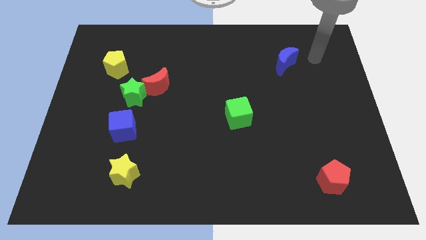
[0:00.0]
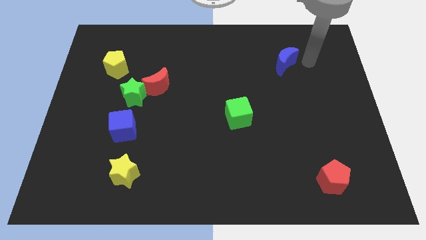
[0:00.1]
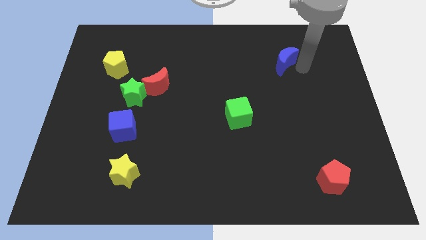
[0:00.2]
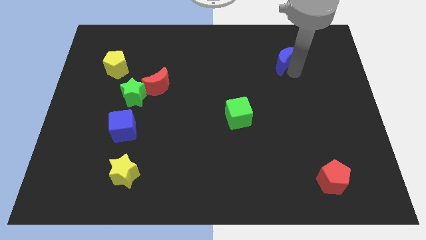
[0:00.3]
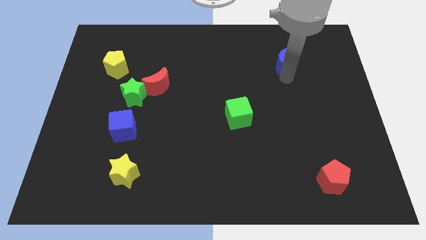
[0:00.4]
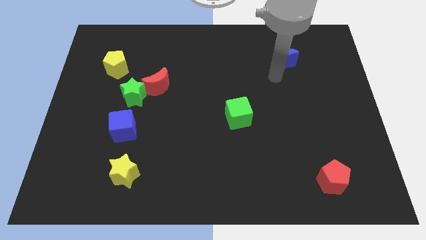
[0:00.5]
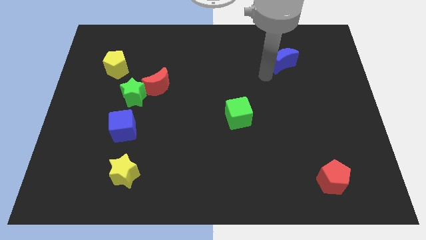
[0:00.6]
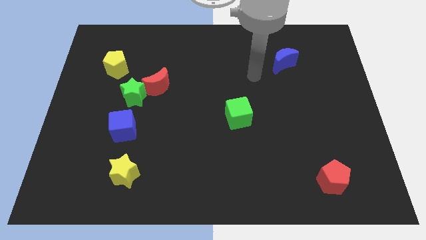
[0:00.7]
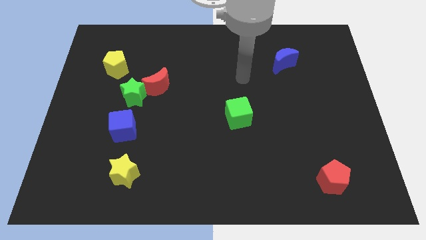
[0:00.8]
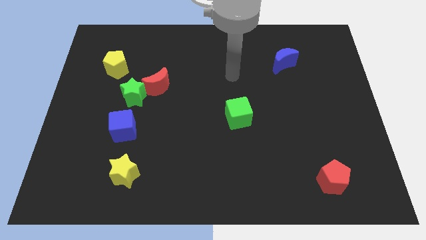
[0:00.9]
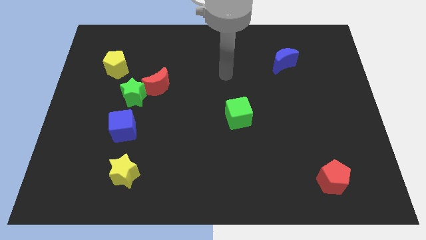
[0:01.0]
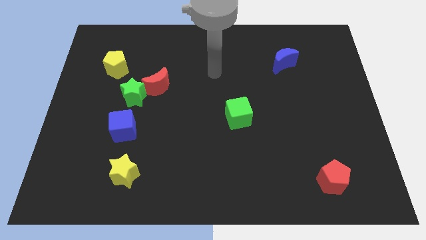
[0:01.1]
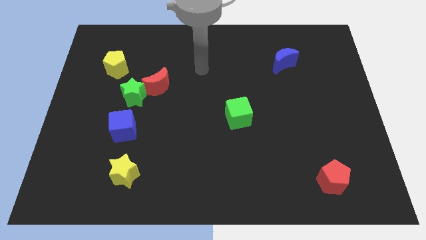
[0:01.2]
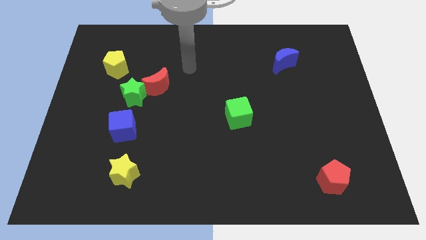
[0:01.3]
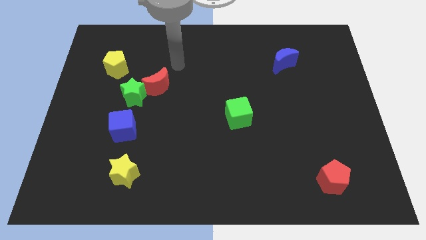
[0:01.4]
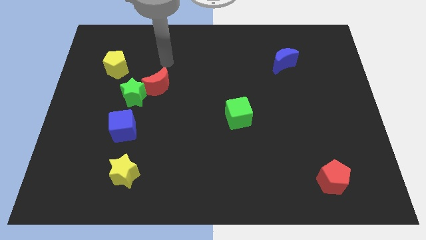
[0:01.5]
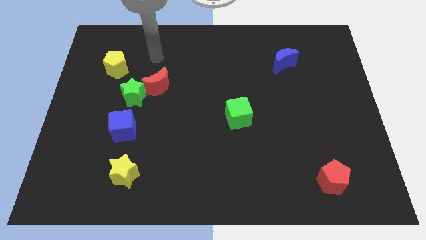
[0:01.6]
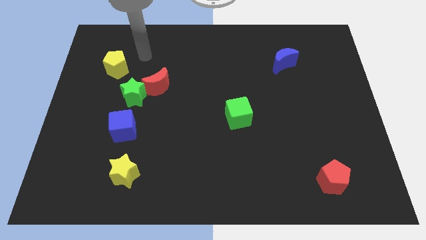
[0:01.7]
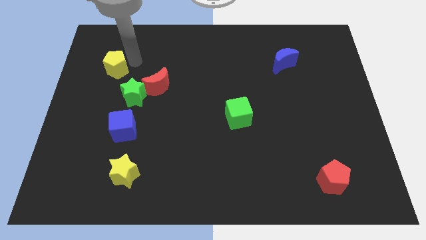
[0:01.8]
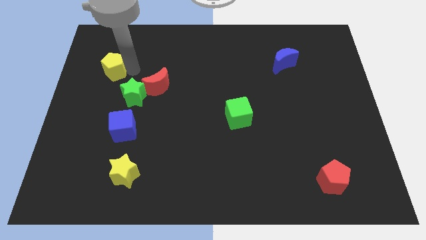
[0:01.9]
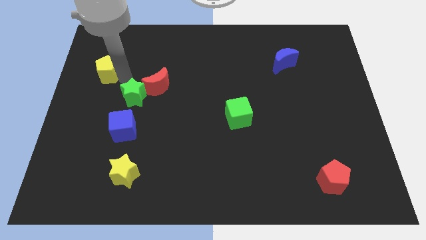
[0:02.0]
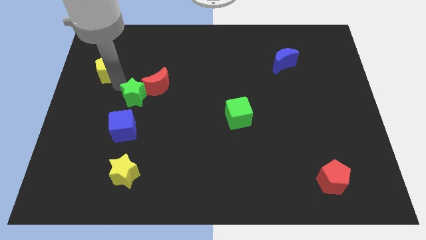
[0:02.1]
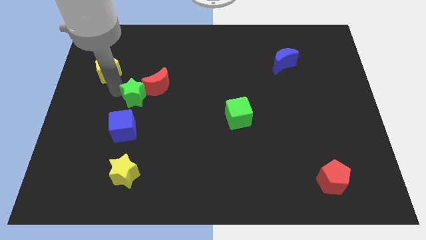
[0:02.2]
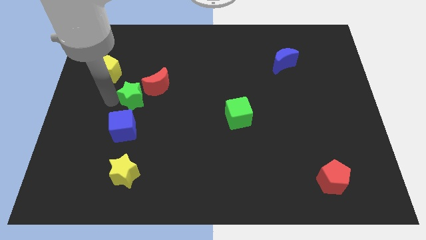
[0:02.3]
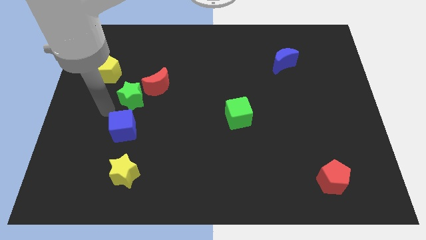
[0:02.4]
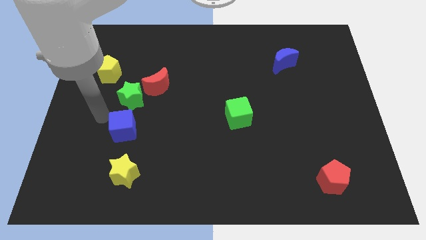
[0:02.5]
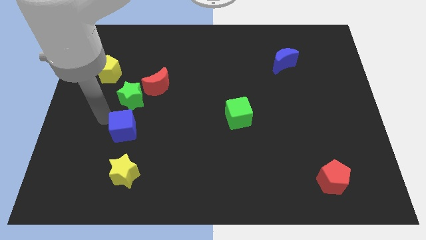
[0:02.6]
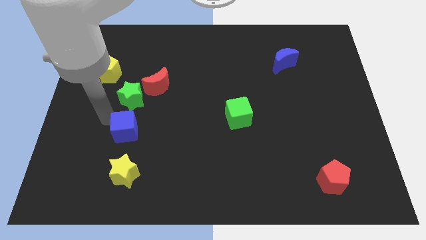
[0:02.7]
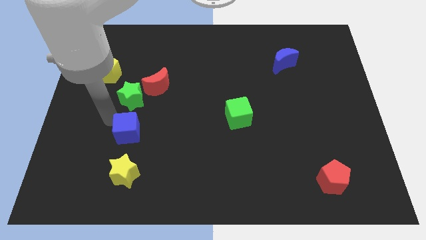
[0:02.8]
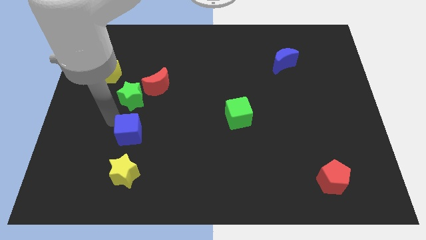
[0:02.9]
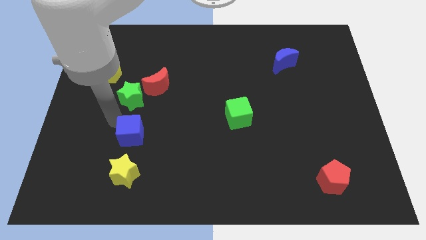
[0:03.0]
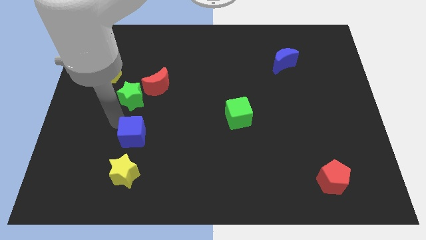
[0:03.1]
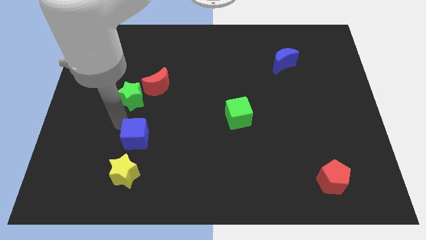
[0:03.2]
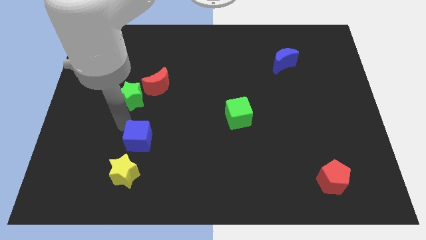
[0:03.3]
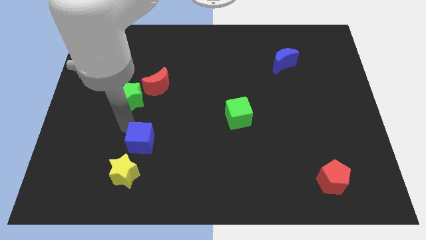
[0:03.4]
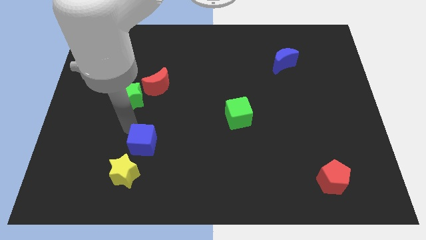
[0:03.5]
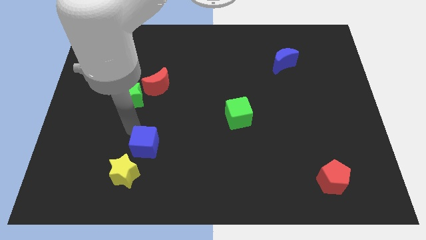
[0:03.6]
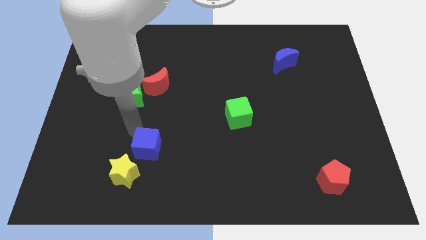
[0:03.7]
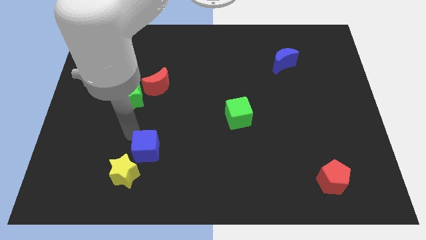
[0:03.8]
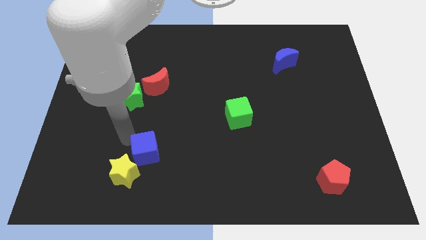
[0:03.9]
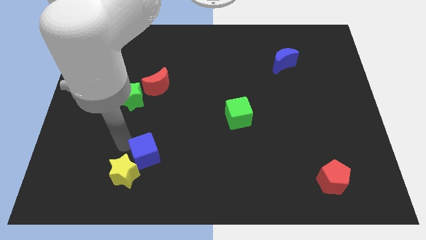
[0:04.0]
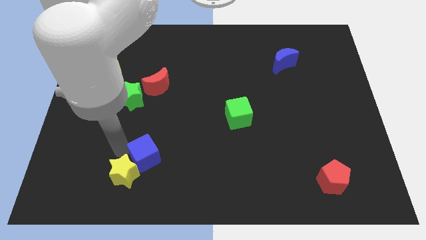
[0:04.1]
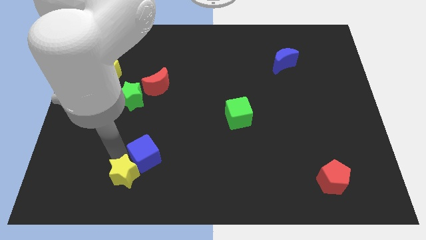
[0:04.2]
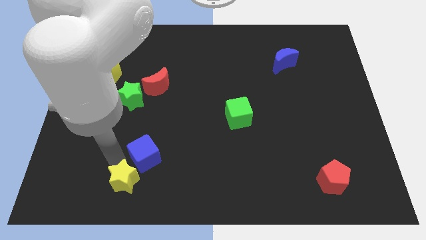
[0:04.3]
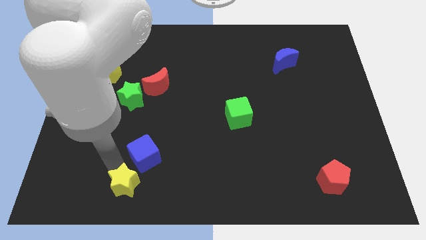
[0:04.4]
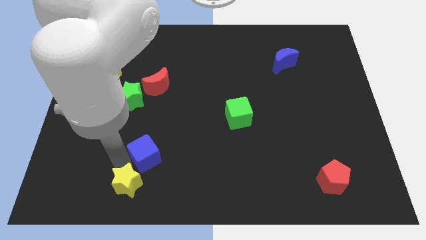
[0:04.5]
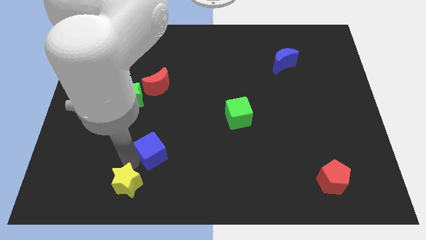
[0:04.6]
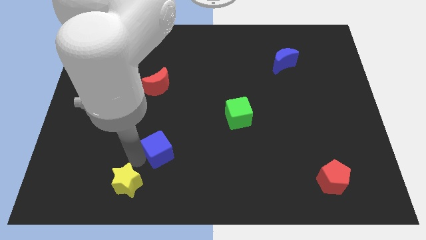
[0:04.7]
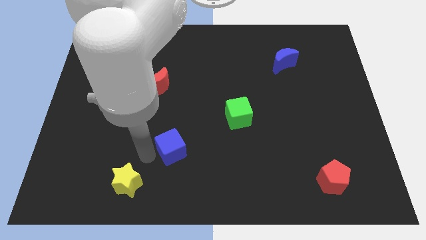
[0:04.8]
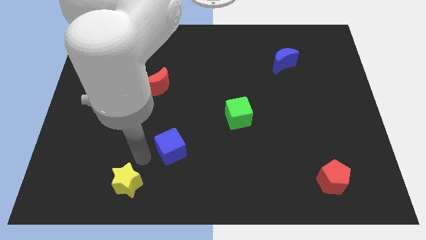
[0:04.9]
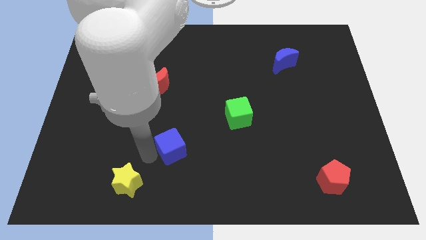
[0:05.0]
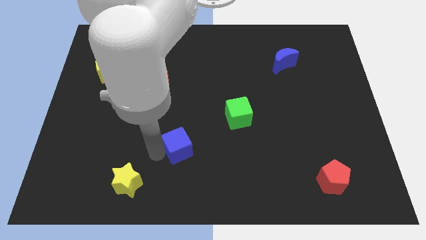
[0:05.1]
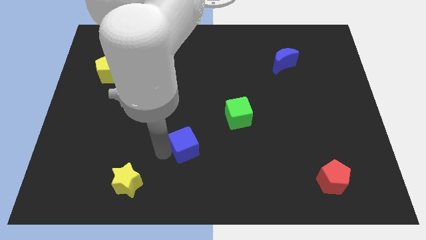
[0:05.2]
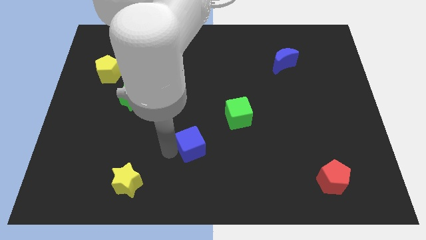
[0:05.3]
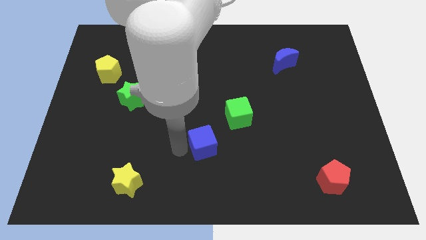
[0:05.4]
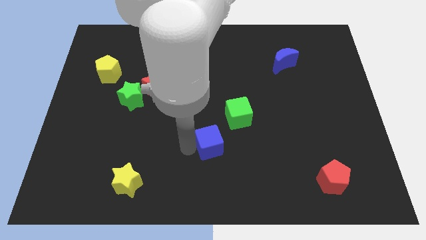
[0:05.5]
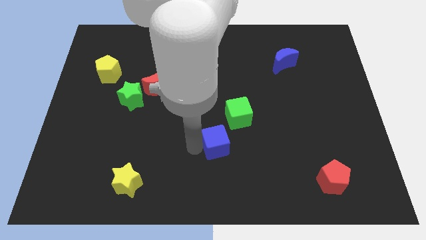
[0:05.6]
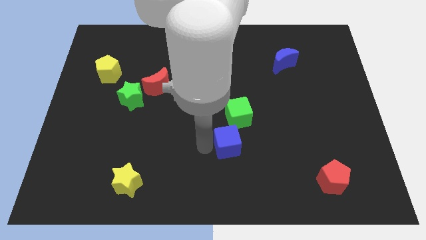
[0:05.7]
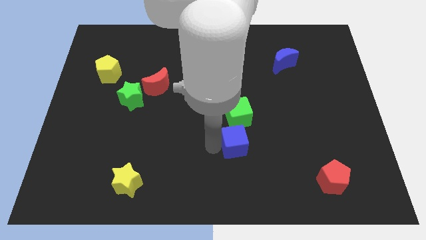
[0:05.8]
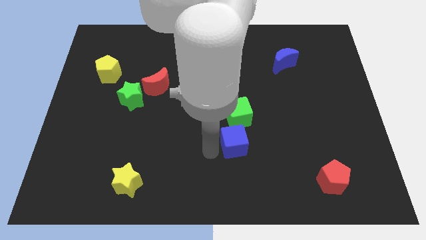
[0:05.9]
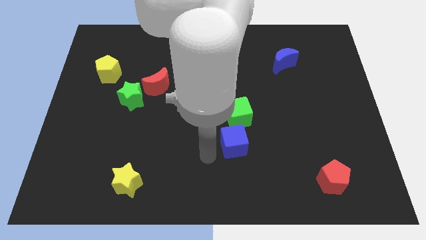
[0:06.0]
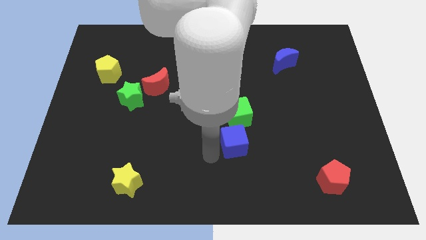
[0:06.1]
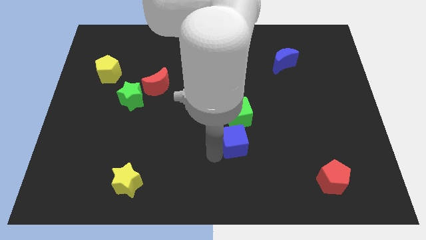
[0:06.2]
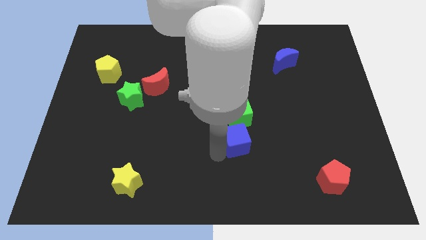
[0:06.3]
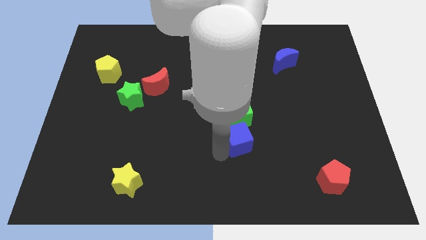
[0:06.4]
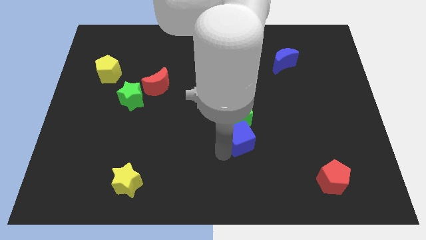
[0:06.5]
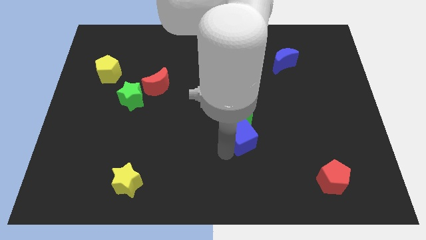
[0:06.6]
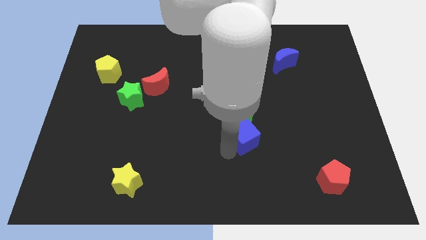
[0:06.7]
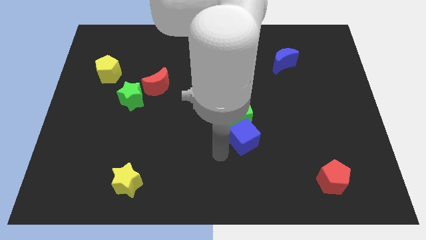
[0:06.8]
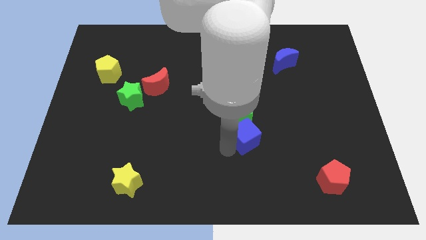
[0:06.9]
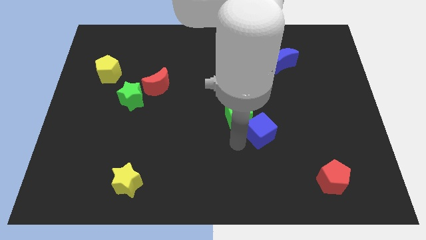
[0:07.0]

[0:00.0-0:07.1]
move the blue cube right of the green cube
